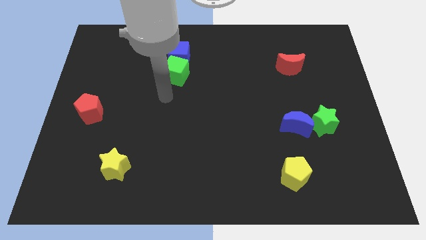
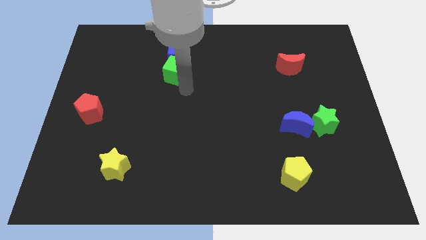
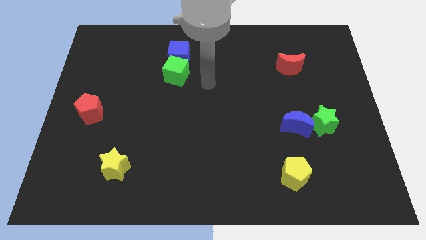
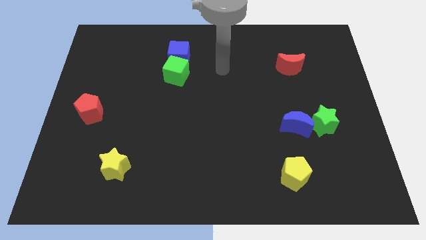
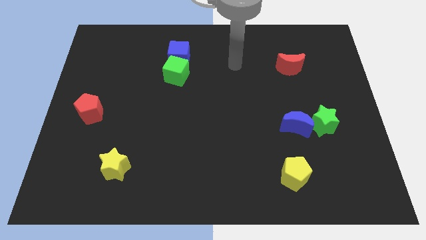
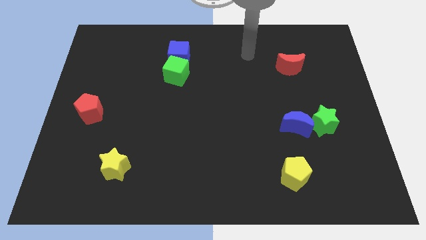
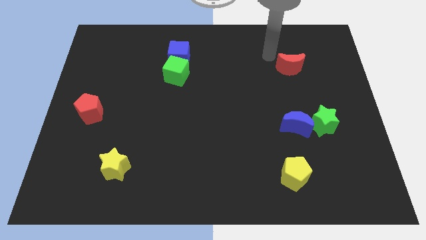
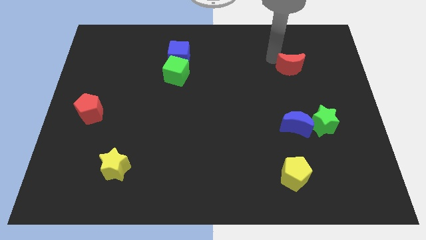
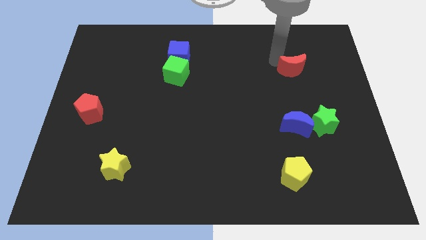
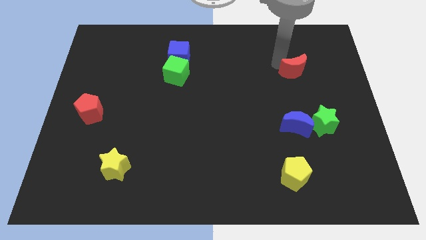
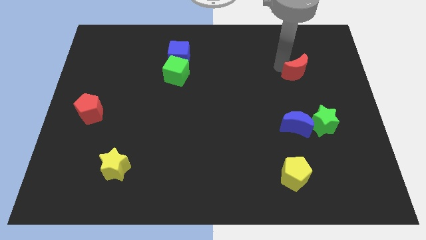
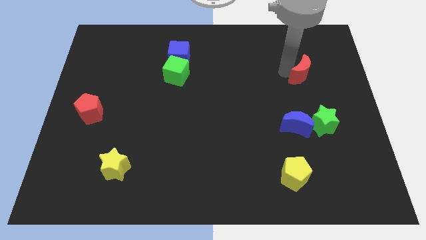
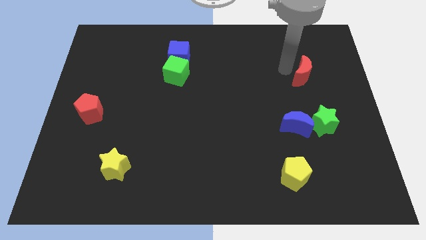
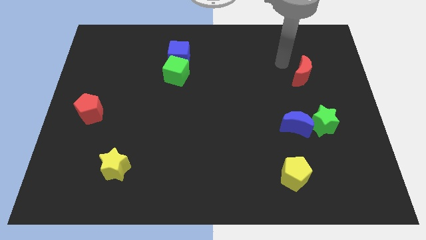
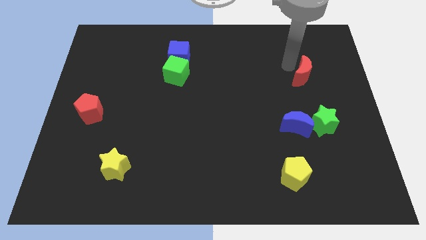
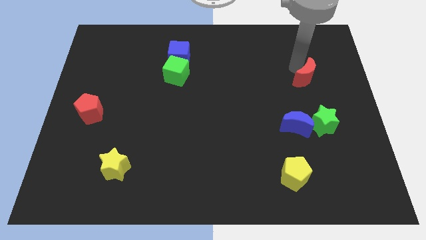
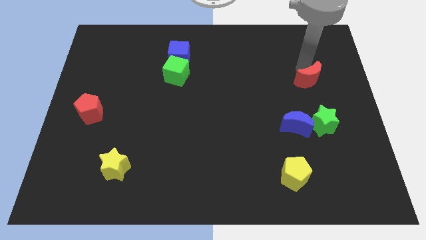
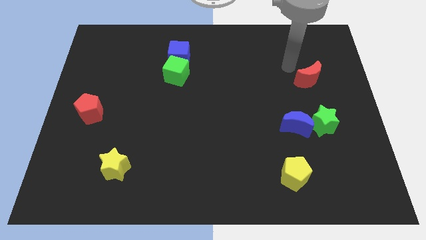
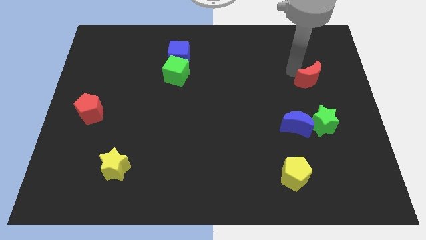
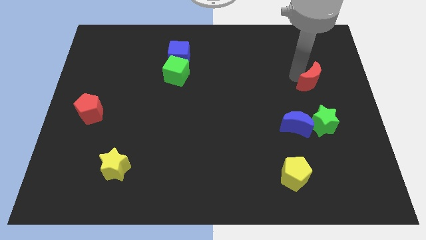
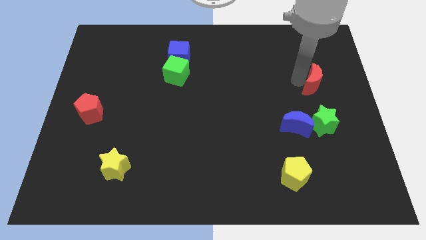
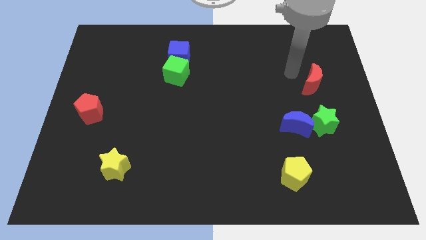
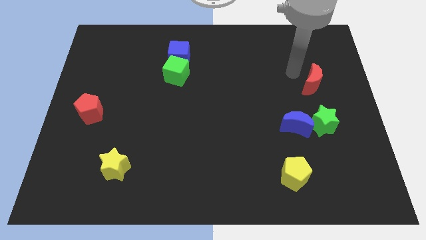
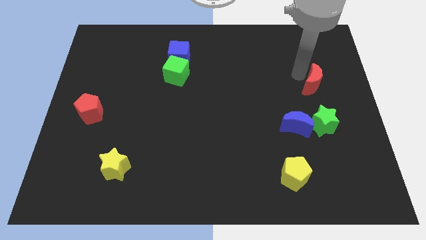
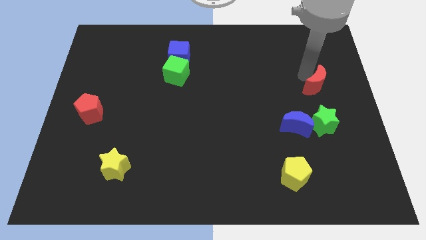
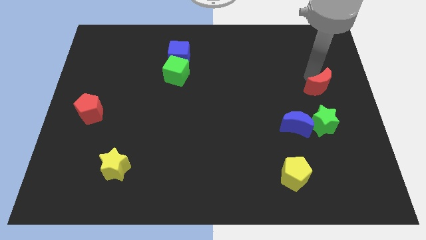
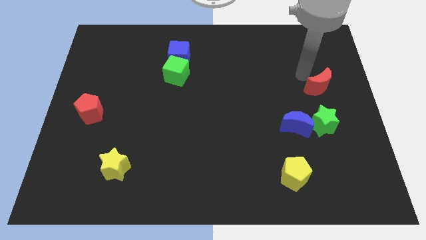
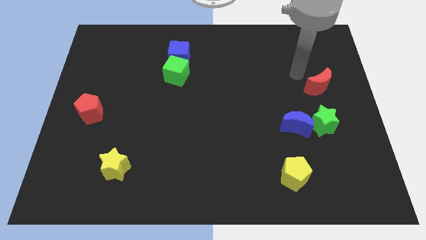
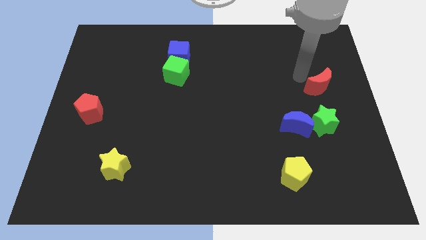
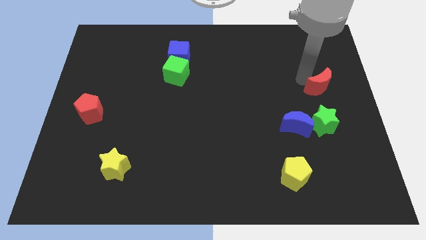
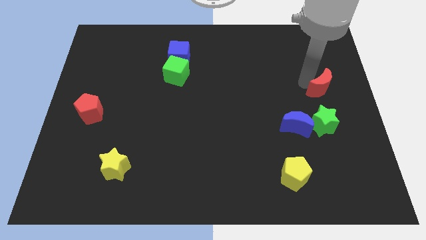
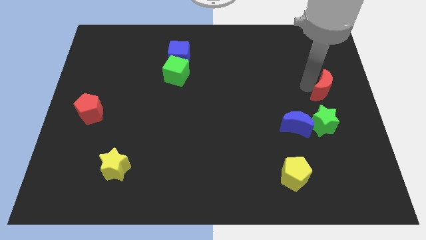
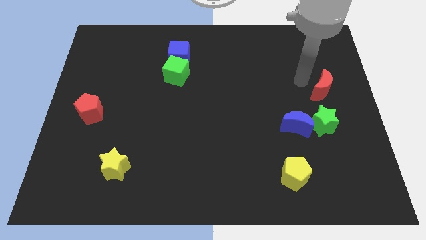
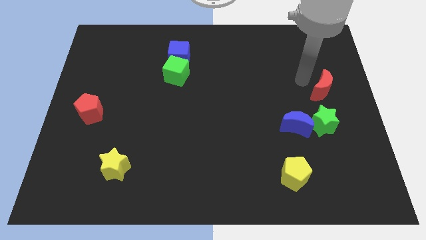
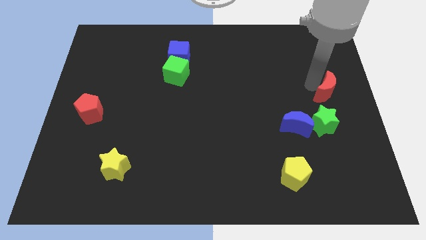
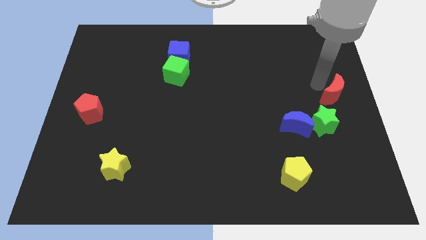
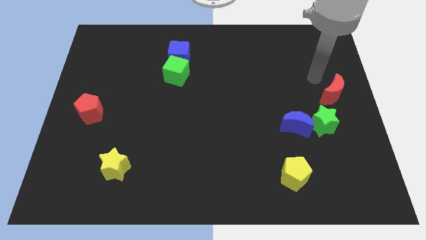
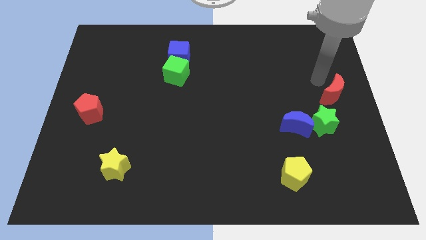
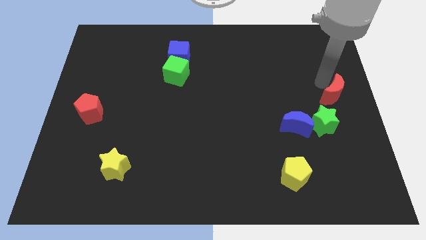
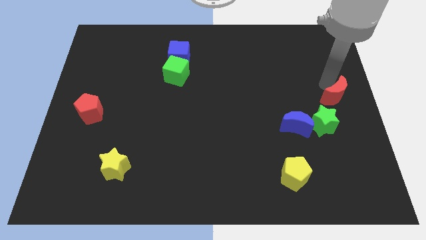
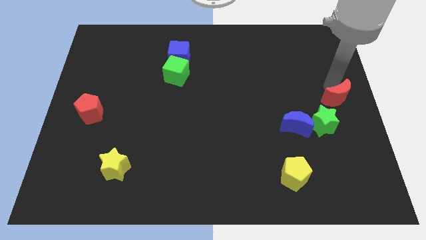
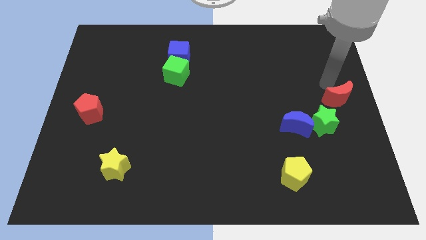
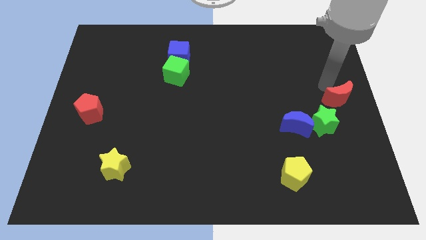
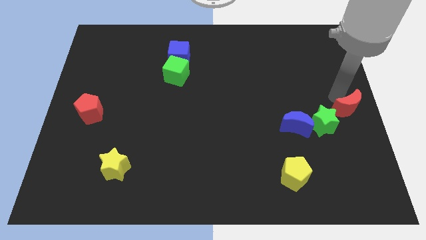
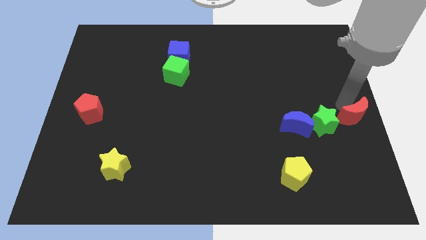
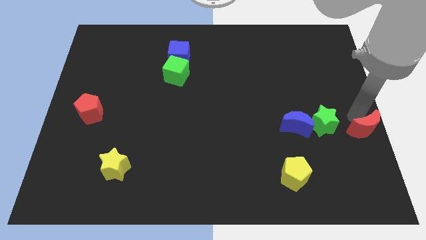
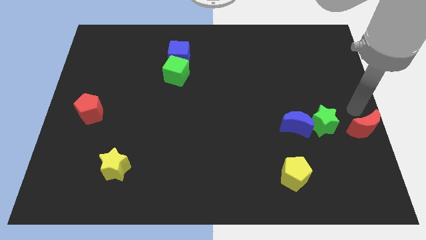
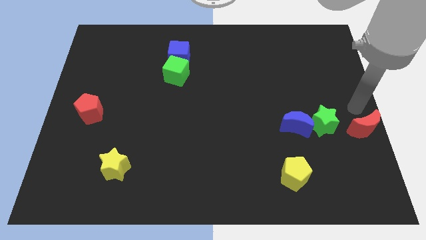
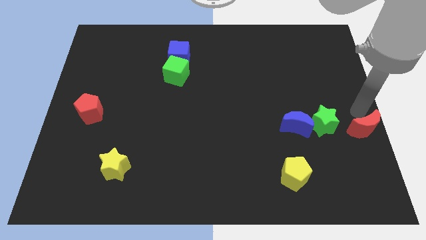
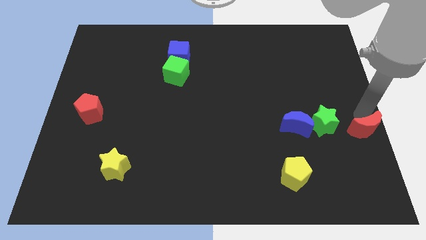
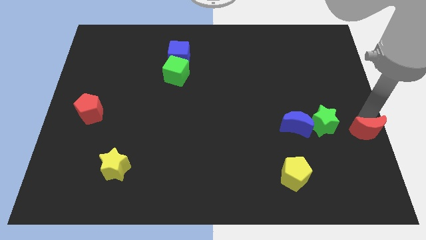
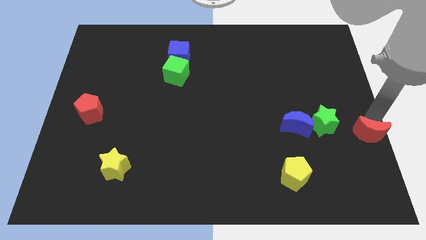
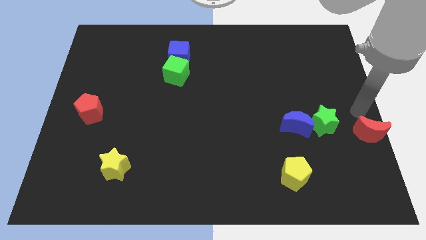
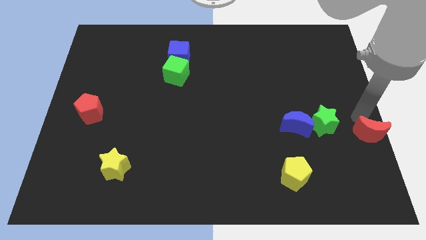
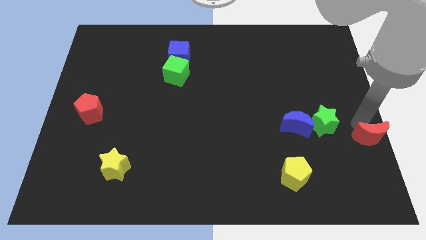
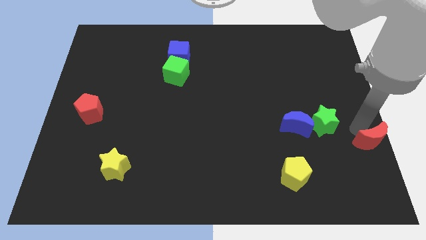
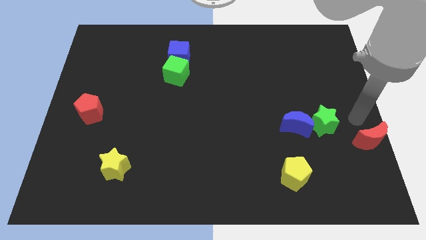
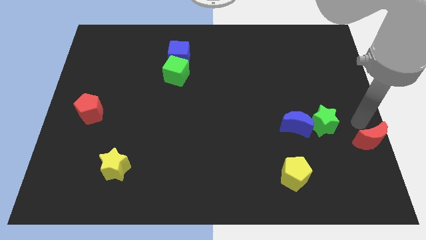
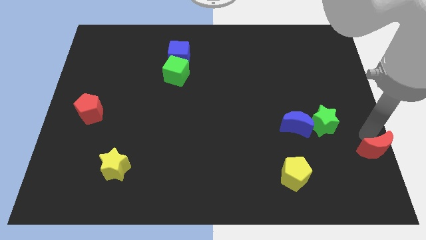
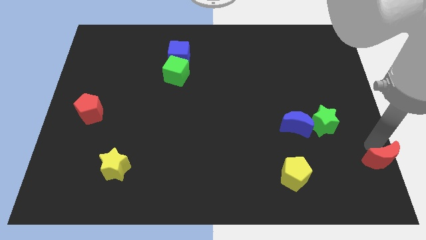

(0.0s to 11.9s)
put the red moon to the bottom right corner

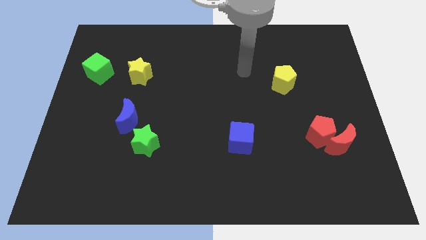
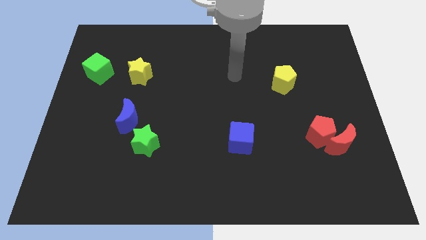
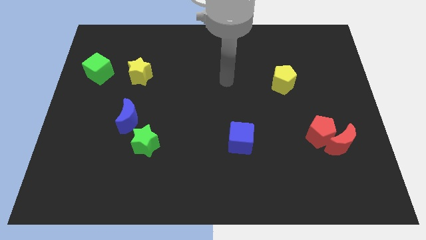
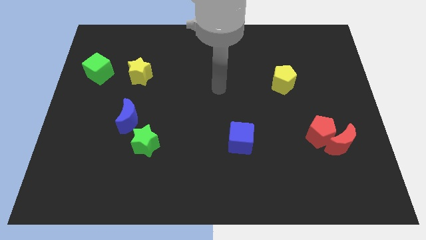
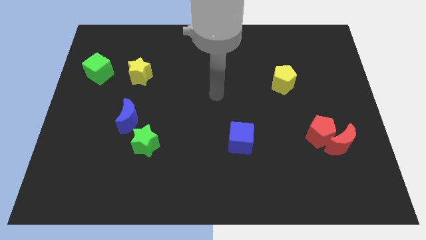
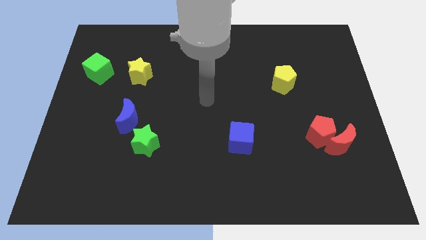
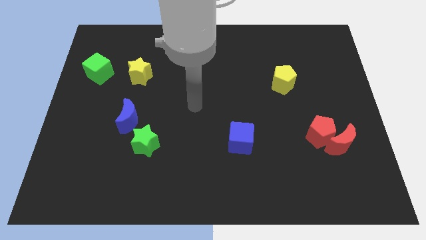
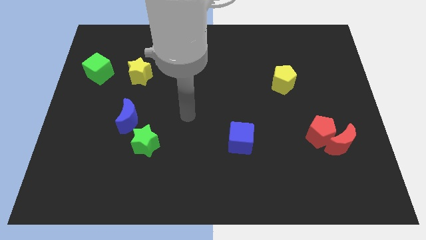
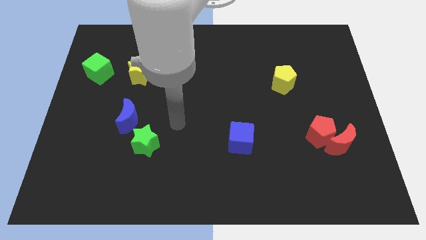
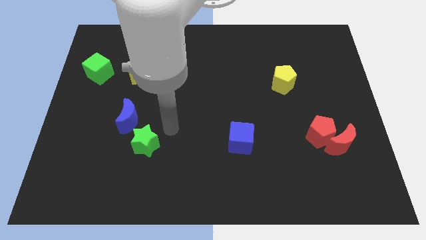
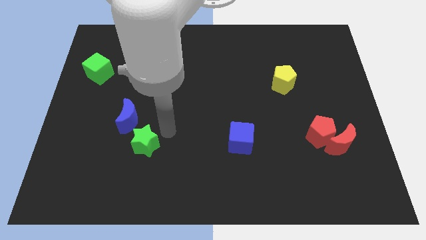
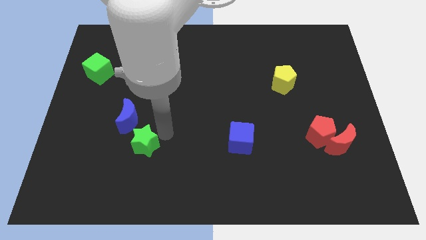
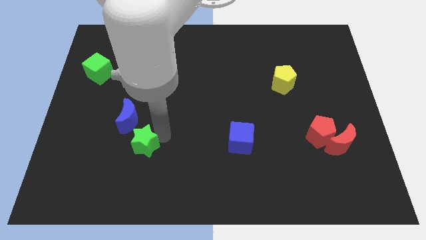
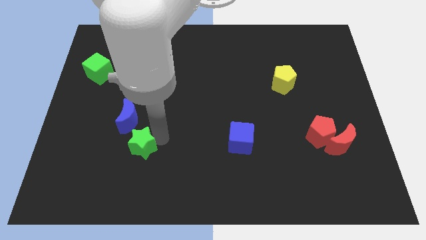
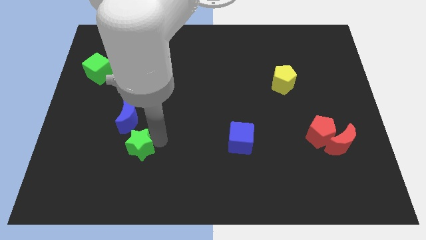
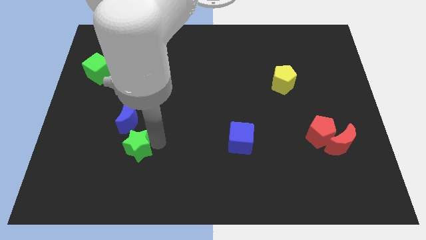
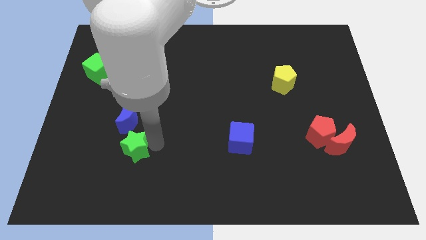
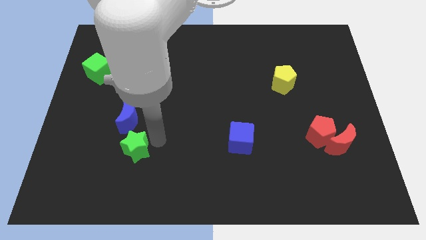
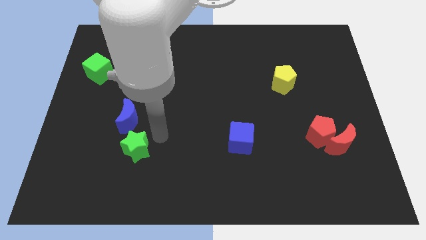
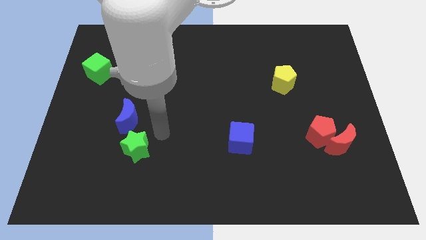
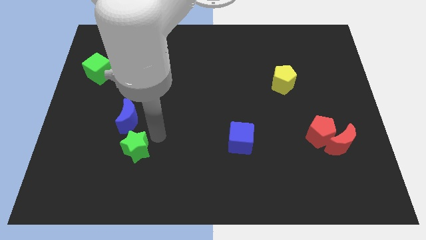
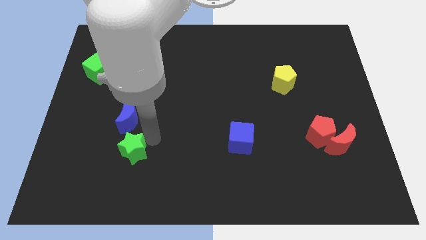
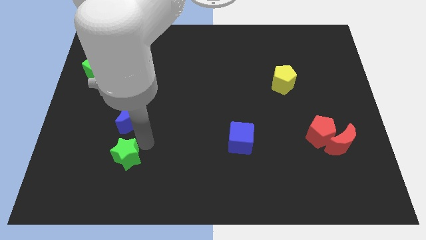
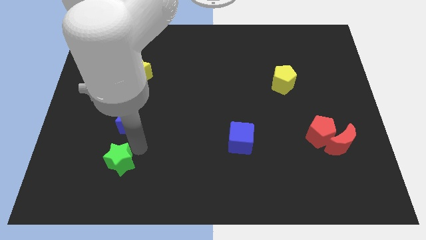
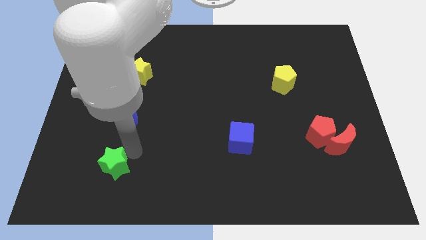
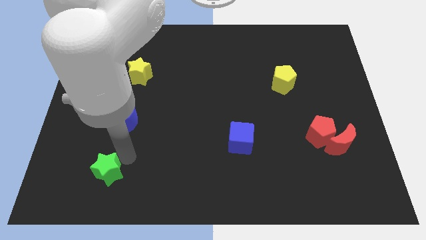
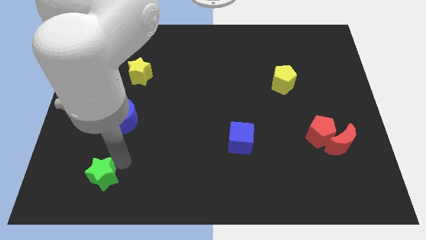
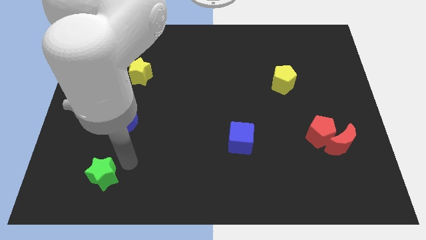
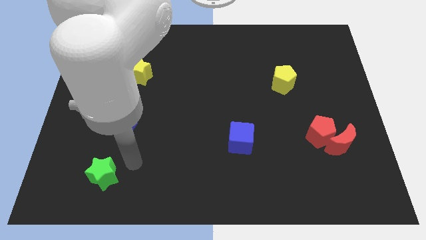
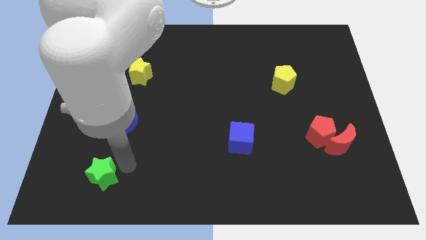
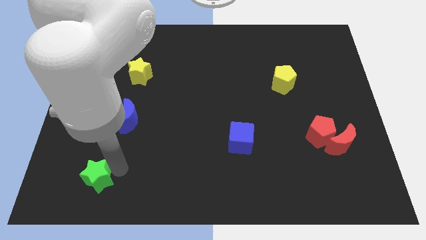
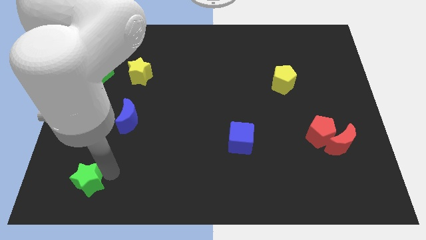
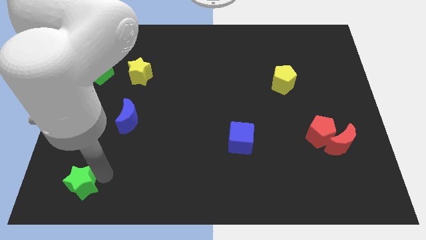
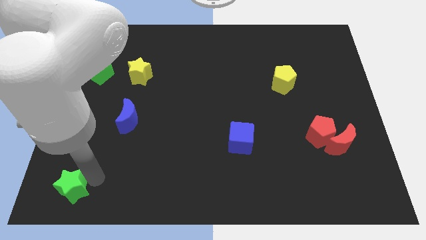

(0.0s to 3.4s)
push the green star to the lower left corner
